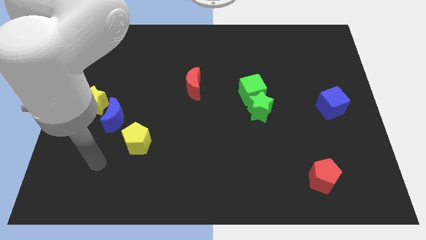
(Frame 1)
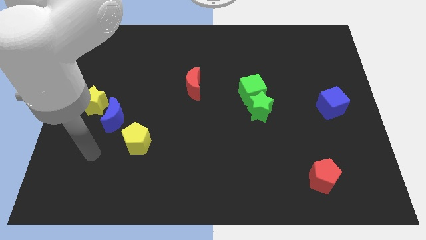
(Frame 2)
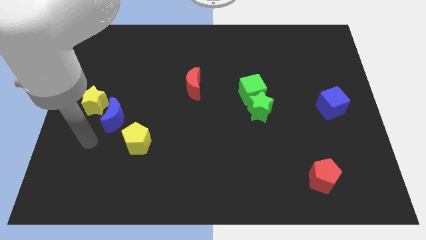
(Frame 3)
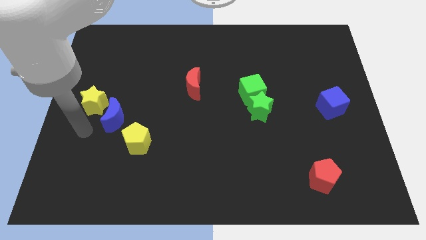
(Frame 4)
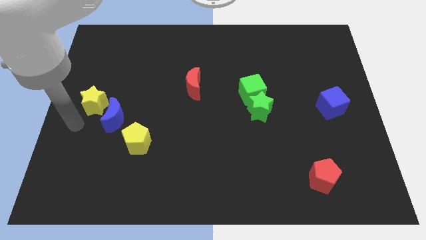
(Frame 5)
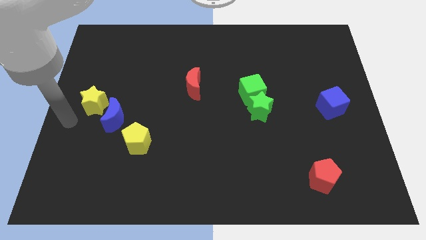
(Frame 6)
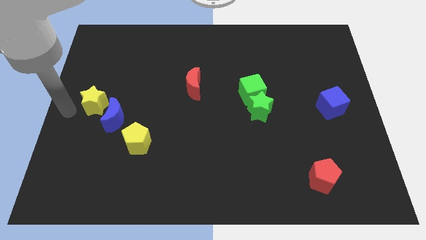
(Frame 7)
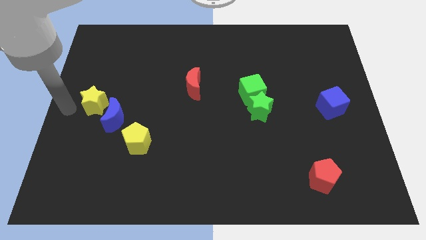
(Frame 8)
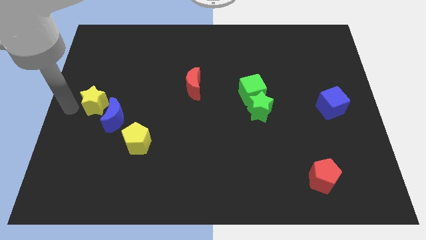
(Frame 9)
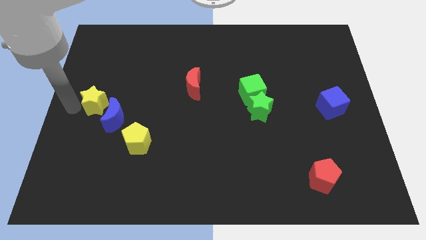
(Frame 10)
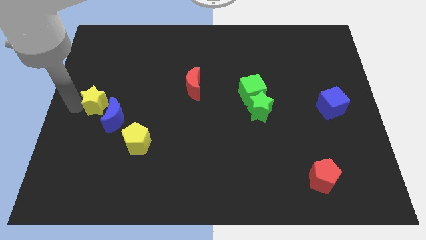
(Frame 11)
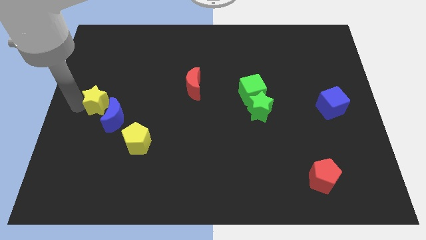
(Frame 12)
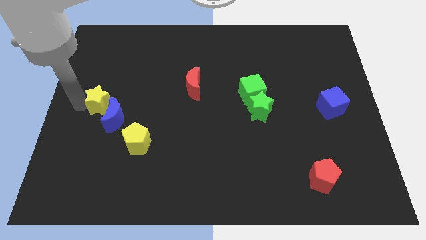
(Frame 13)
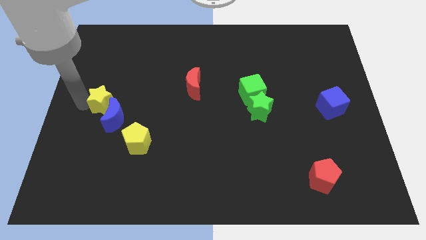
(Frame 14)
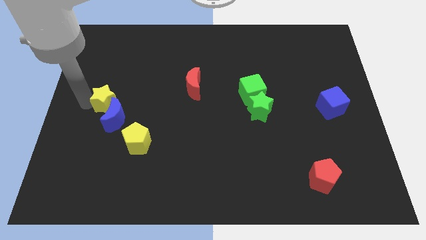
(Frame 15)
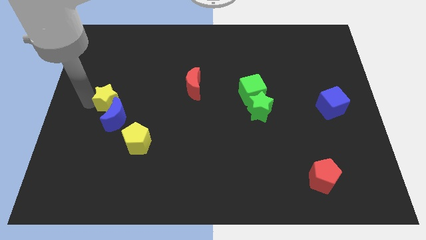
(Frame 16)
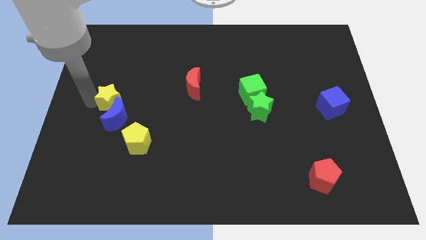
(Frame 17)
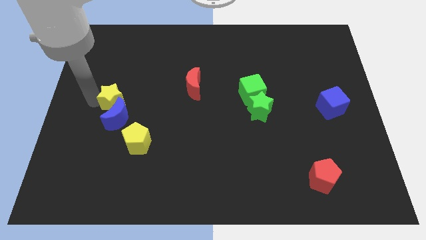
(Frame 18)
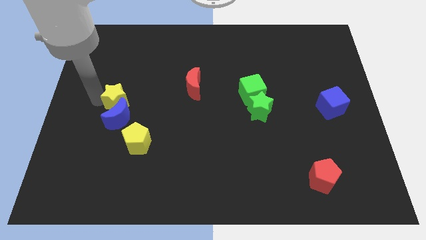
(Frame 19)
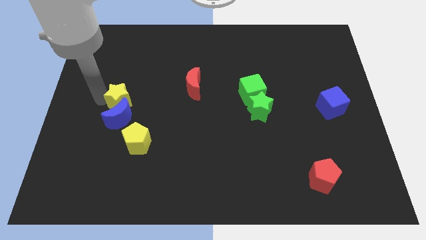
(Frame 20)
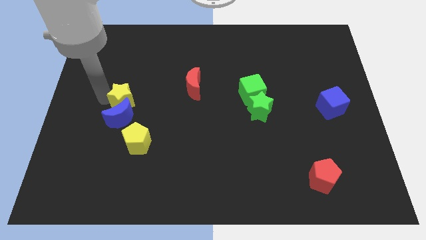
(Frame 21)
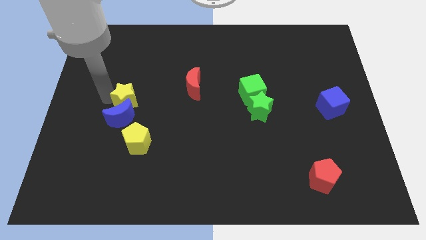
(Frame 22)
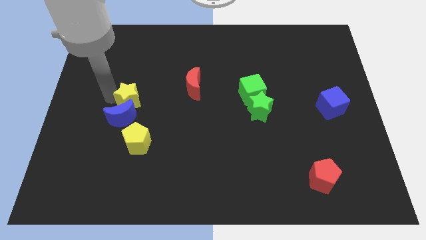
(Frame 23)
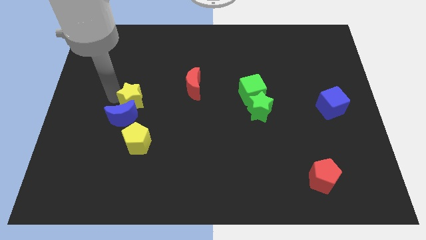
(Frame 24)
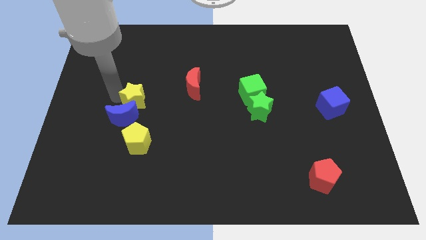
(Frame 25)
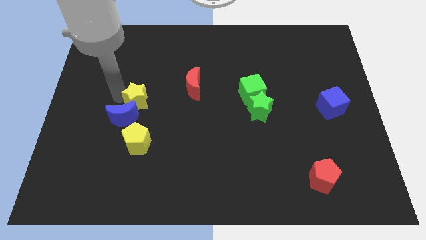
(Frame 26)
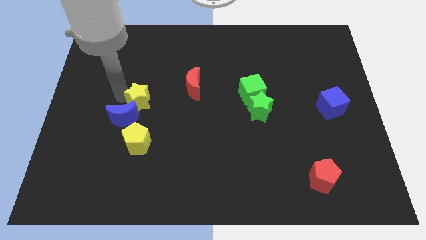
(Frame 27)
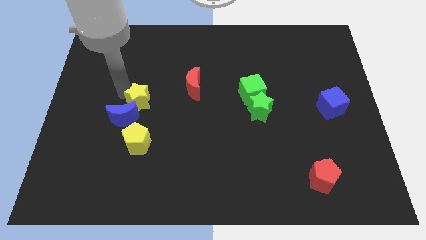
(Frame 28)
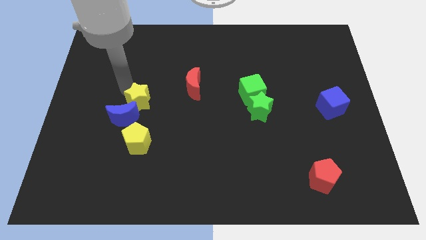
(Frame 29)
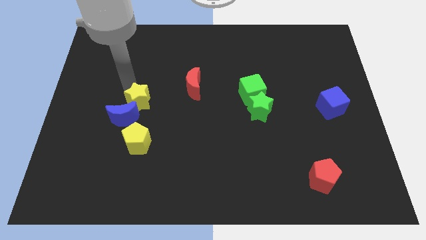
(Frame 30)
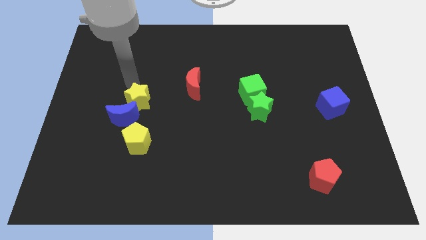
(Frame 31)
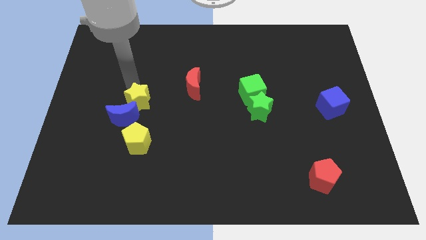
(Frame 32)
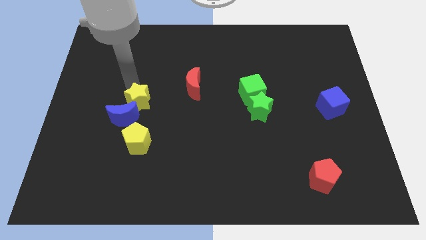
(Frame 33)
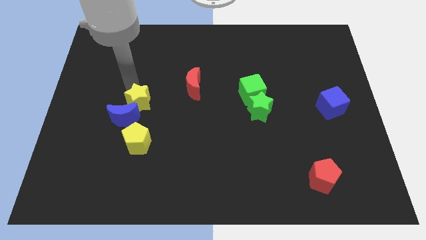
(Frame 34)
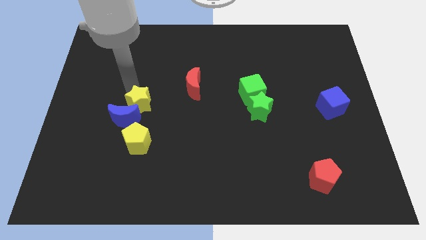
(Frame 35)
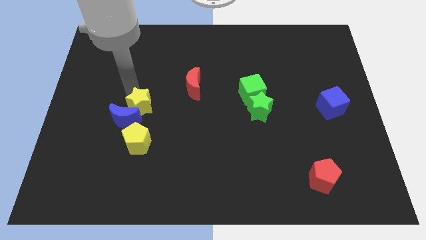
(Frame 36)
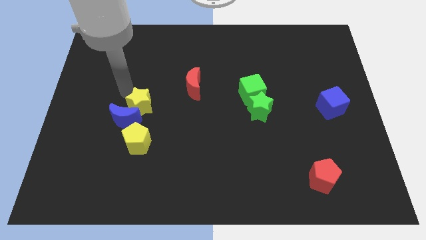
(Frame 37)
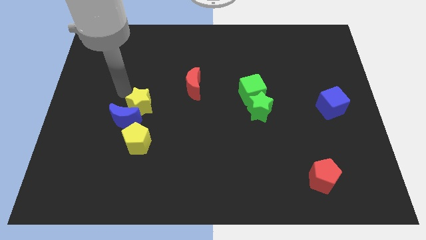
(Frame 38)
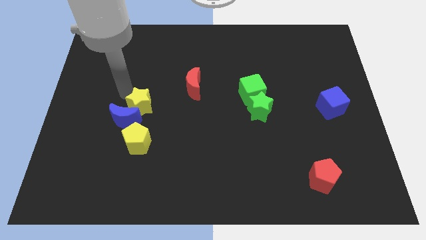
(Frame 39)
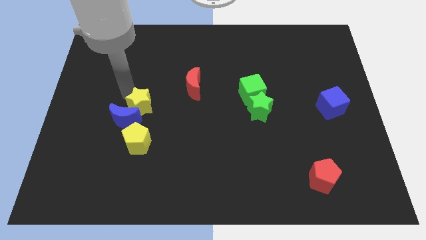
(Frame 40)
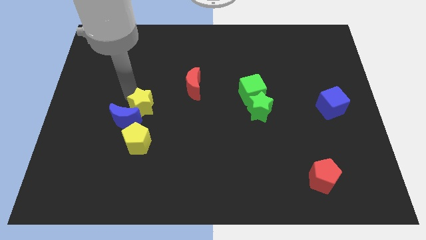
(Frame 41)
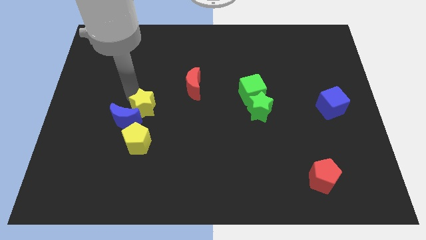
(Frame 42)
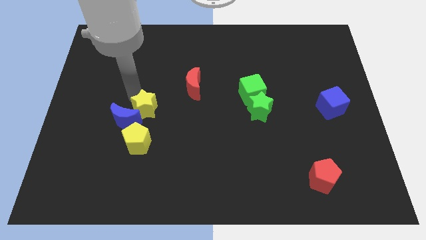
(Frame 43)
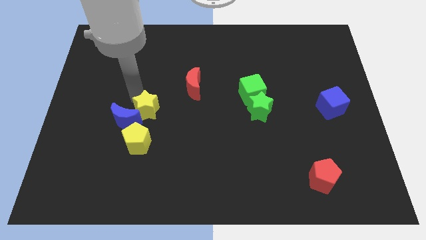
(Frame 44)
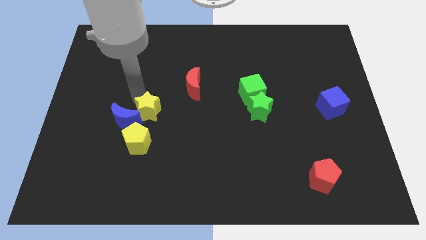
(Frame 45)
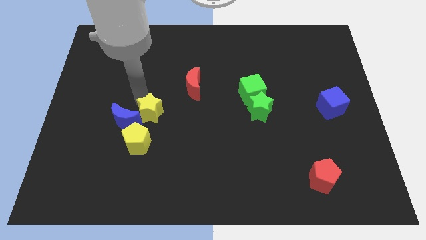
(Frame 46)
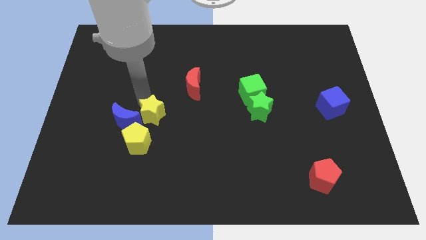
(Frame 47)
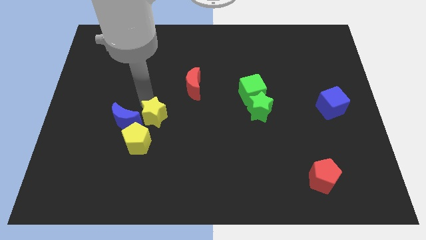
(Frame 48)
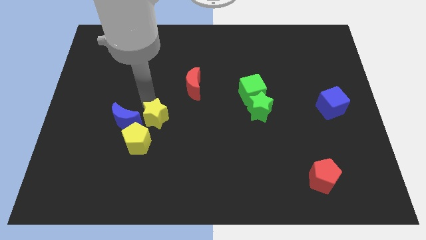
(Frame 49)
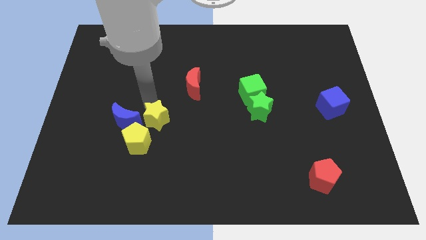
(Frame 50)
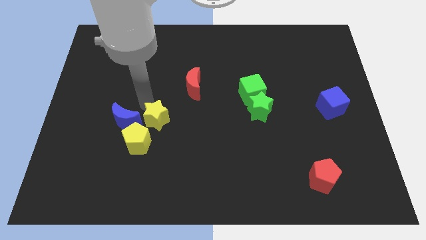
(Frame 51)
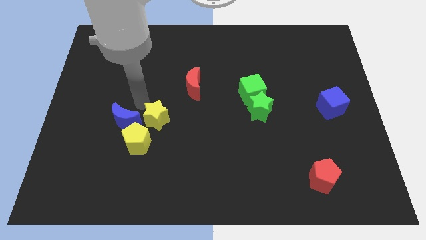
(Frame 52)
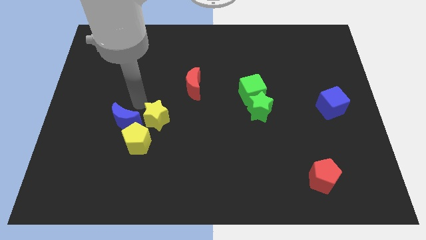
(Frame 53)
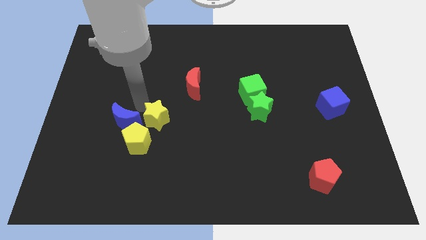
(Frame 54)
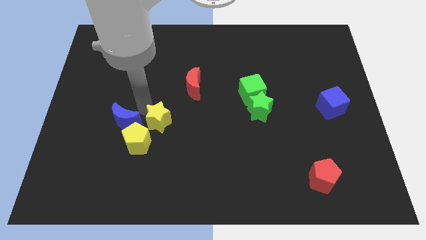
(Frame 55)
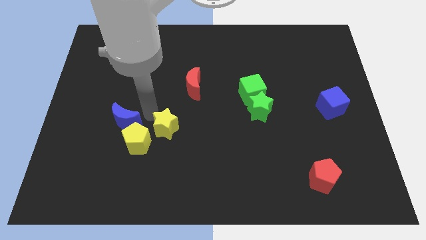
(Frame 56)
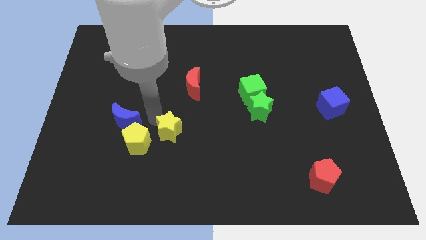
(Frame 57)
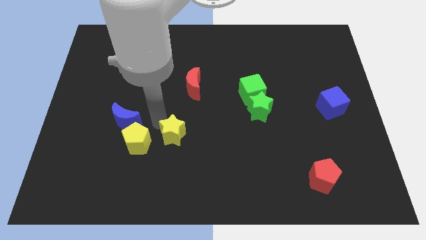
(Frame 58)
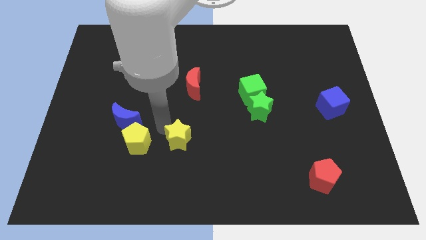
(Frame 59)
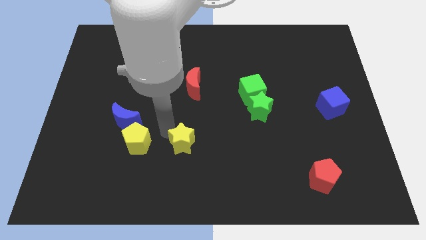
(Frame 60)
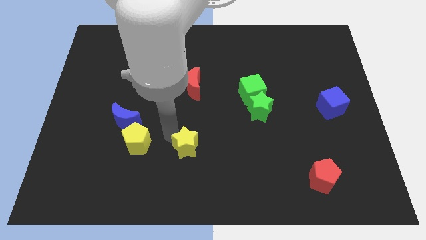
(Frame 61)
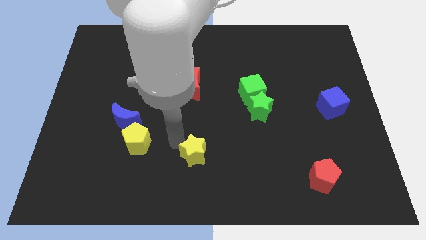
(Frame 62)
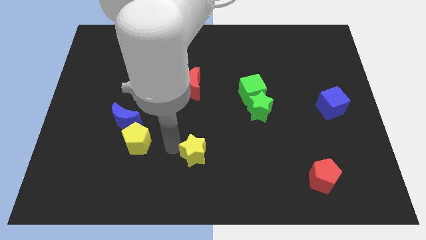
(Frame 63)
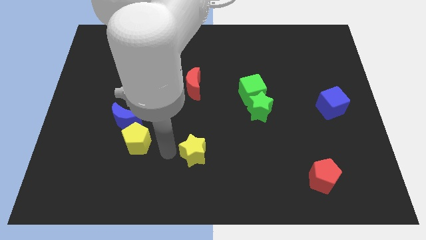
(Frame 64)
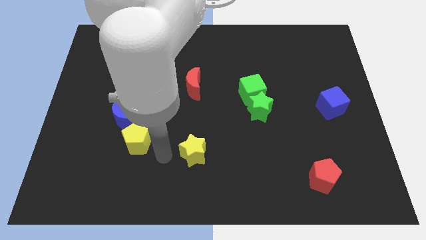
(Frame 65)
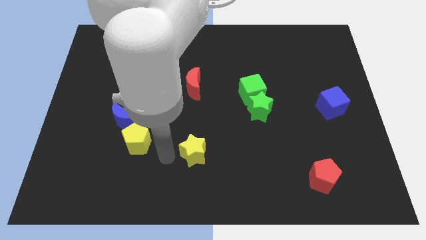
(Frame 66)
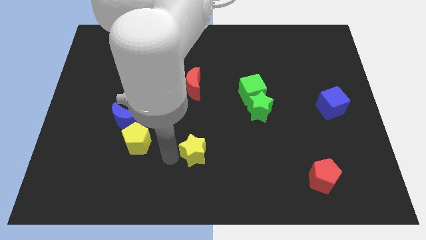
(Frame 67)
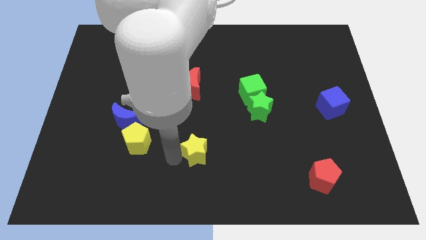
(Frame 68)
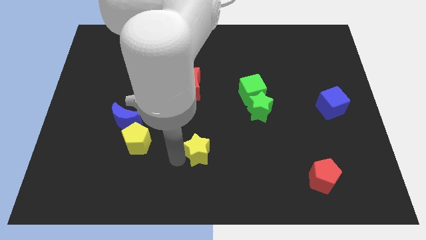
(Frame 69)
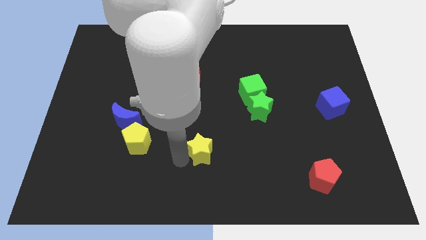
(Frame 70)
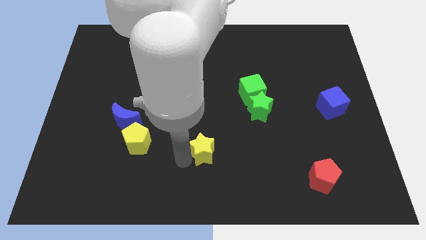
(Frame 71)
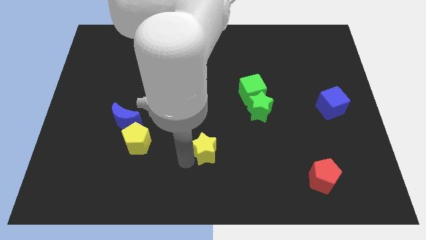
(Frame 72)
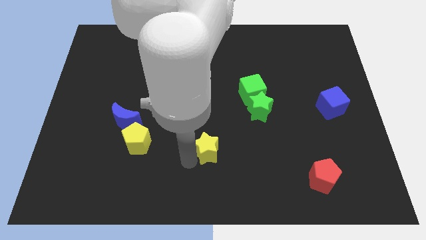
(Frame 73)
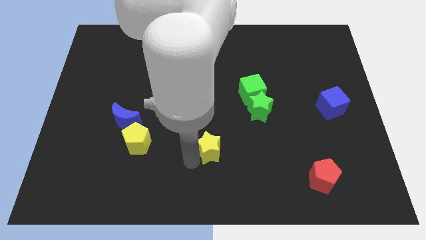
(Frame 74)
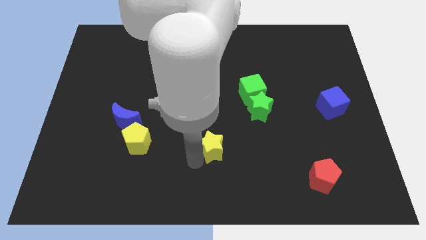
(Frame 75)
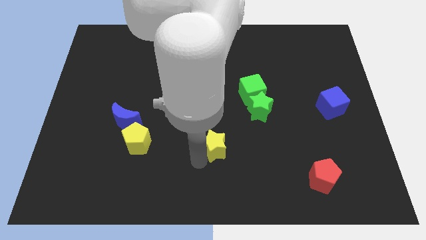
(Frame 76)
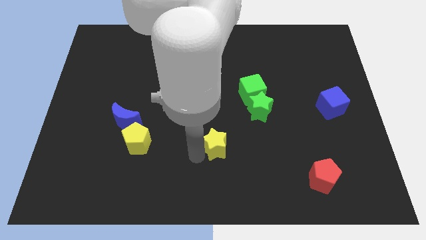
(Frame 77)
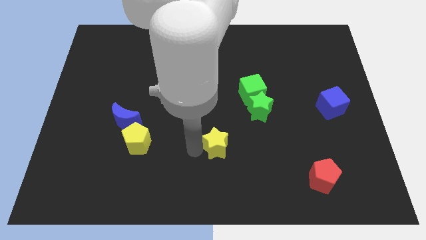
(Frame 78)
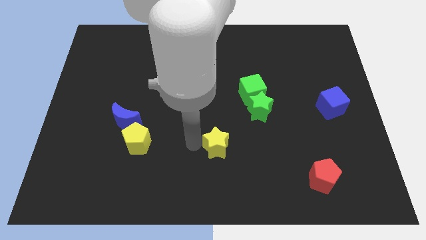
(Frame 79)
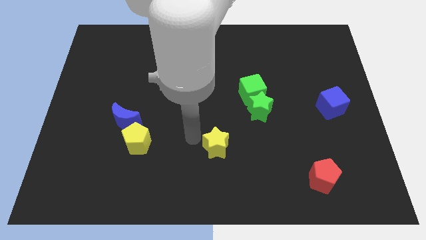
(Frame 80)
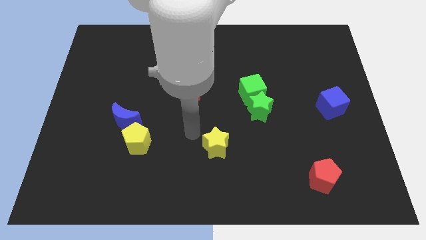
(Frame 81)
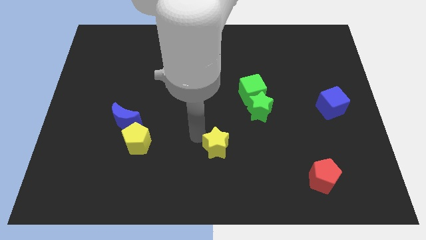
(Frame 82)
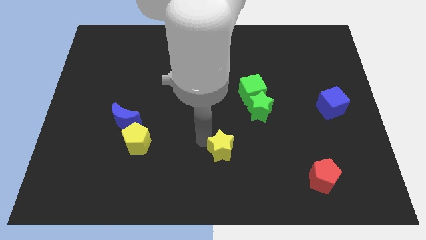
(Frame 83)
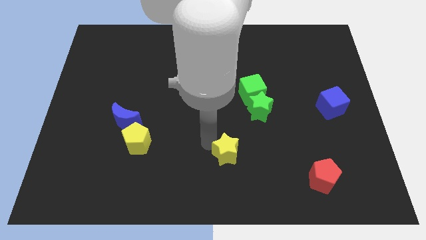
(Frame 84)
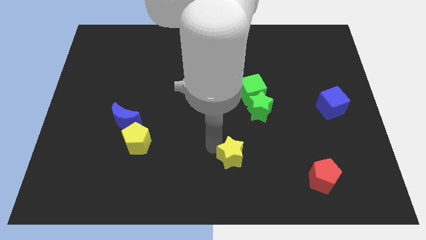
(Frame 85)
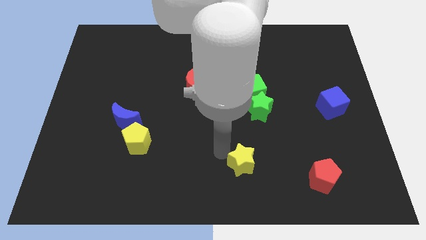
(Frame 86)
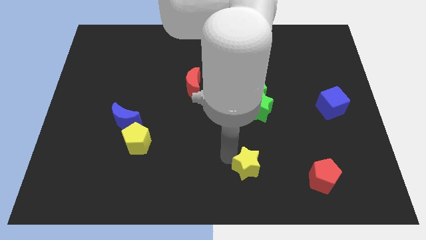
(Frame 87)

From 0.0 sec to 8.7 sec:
push the yellow star to the left side of the red pentagon
